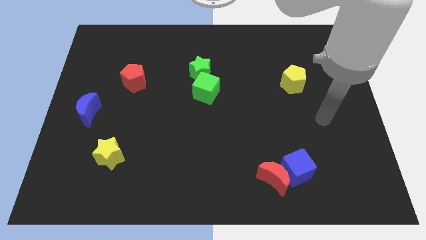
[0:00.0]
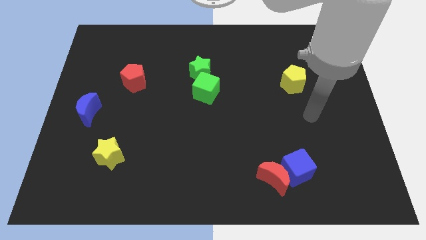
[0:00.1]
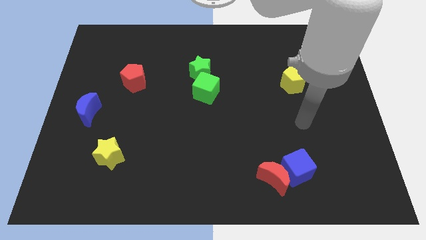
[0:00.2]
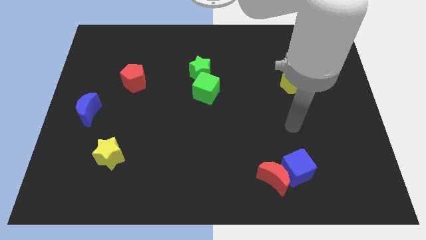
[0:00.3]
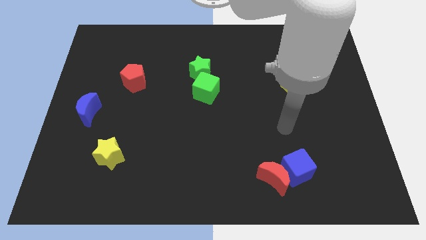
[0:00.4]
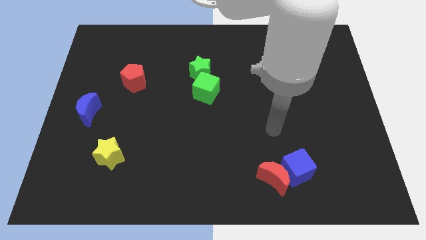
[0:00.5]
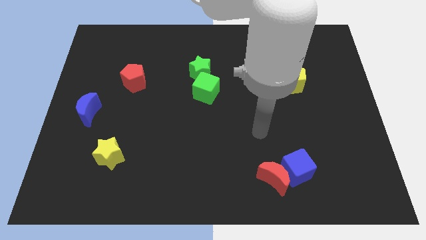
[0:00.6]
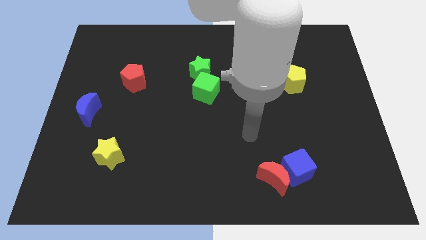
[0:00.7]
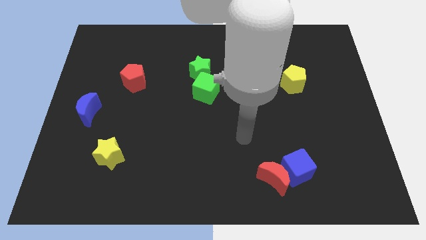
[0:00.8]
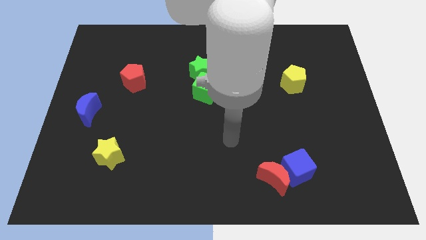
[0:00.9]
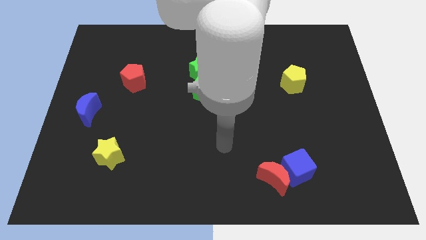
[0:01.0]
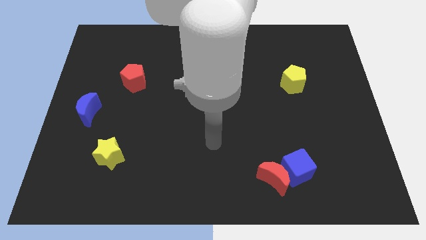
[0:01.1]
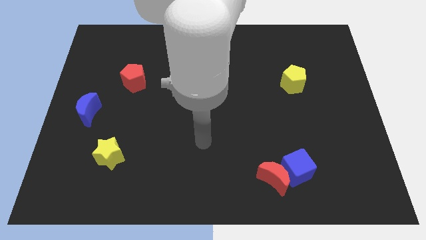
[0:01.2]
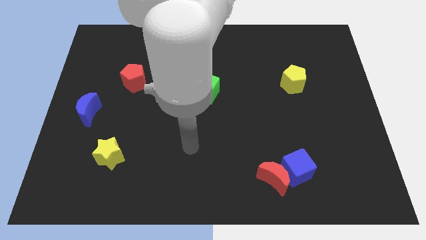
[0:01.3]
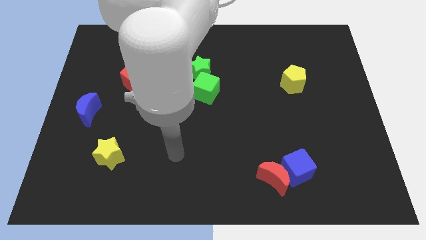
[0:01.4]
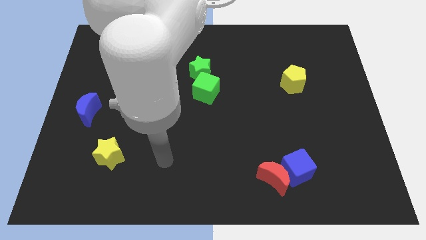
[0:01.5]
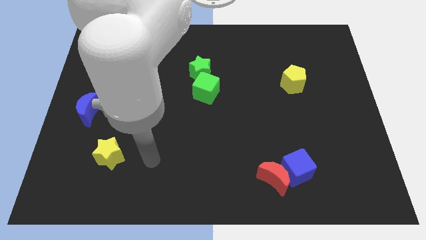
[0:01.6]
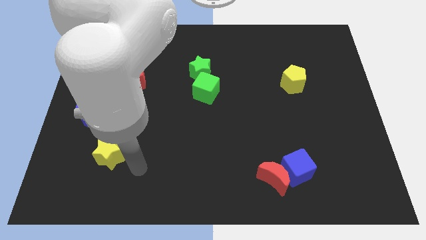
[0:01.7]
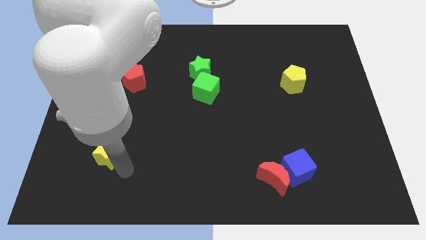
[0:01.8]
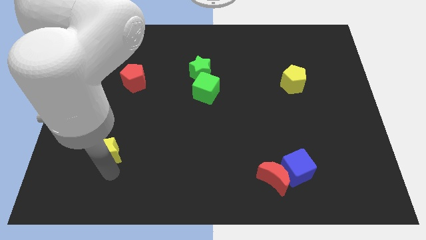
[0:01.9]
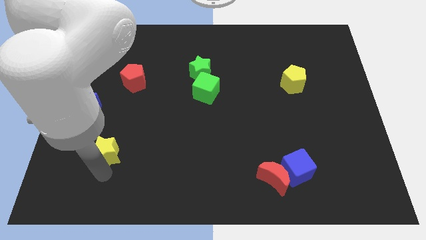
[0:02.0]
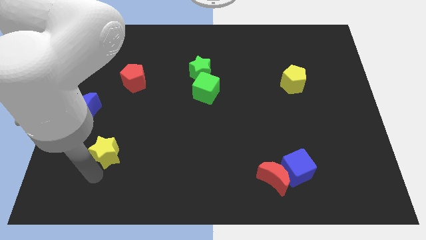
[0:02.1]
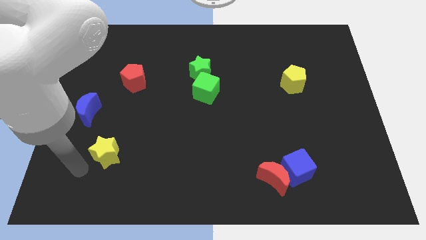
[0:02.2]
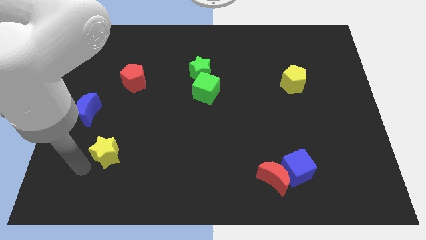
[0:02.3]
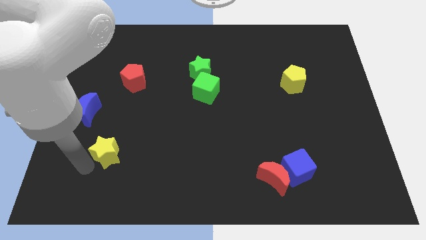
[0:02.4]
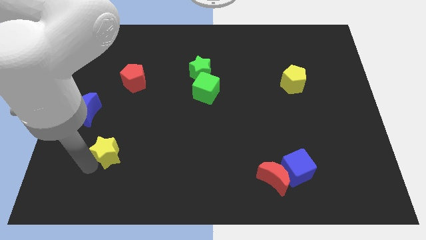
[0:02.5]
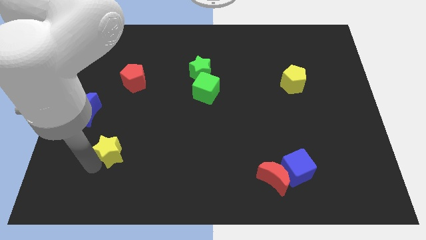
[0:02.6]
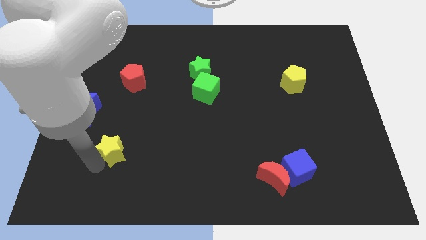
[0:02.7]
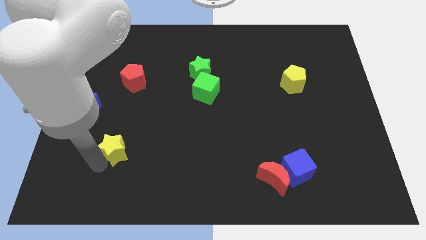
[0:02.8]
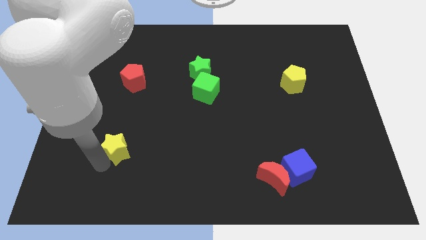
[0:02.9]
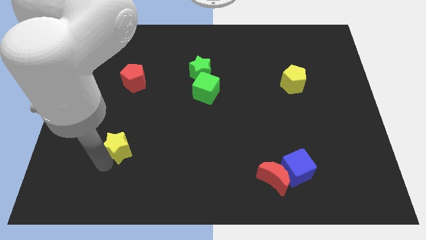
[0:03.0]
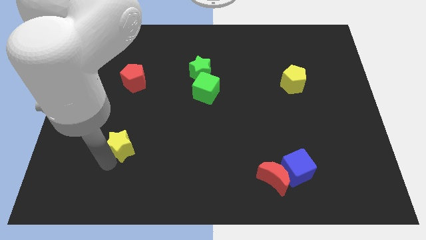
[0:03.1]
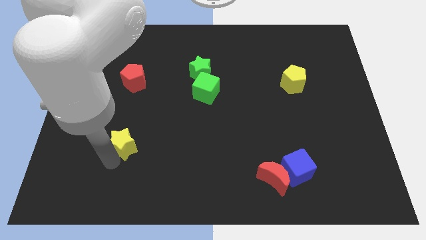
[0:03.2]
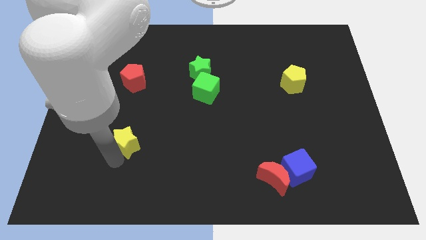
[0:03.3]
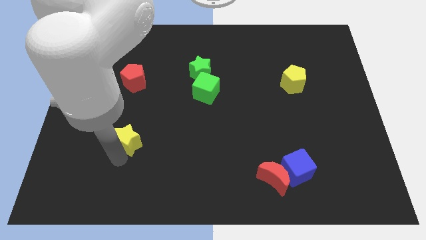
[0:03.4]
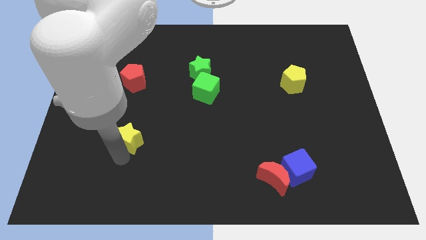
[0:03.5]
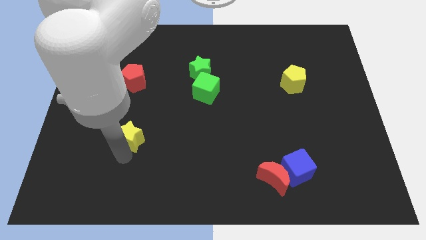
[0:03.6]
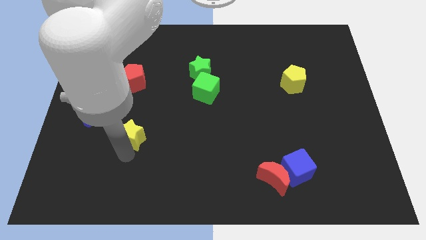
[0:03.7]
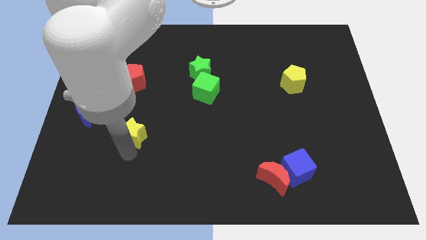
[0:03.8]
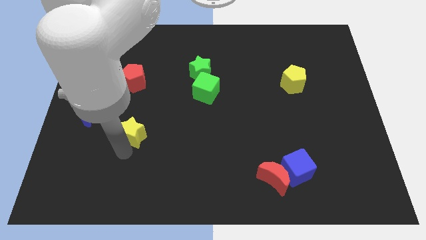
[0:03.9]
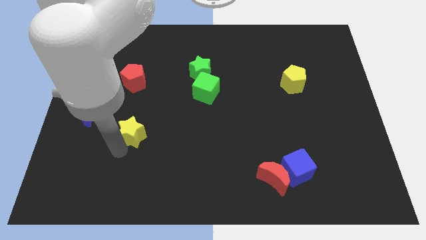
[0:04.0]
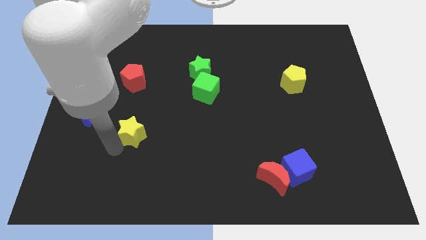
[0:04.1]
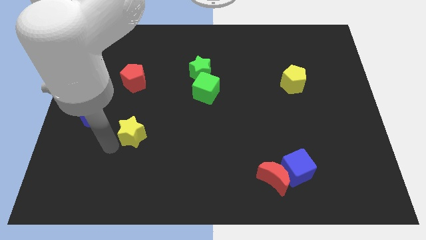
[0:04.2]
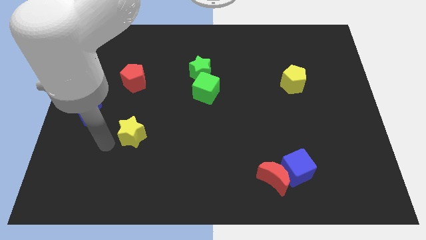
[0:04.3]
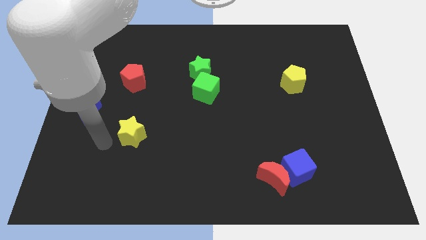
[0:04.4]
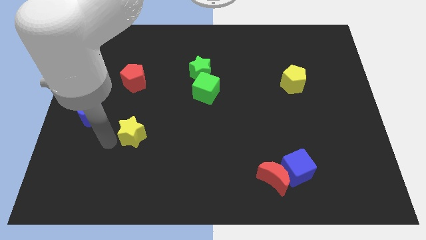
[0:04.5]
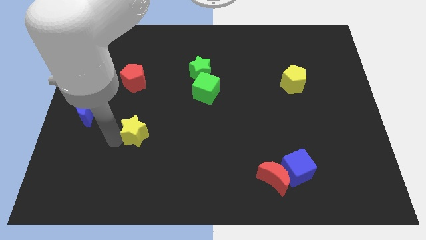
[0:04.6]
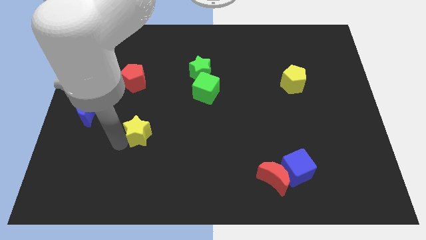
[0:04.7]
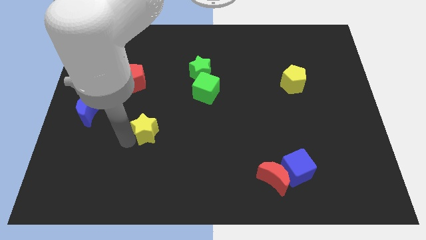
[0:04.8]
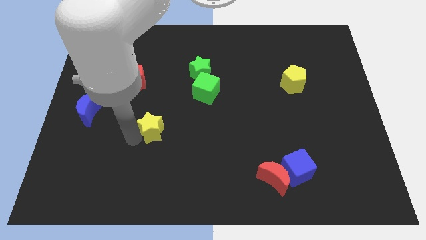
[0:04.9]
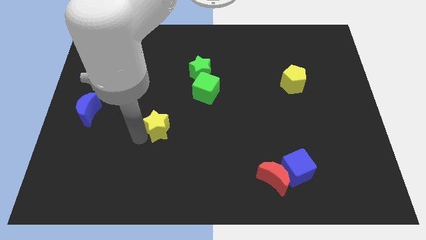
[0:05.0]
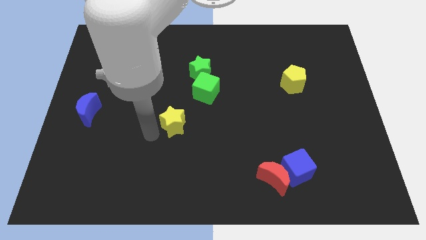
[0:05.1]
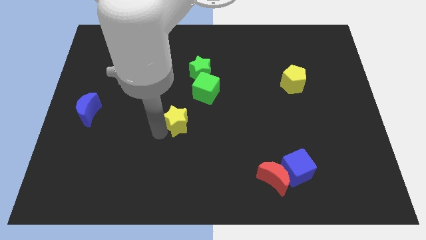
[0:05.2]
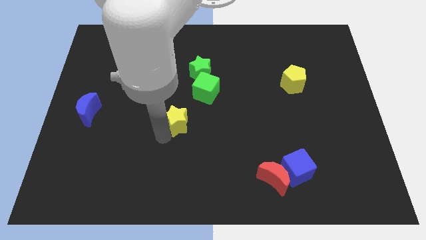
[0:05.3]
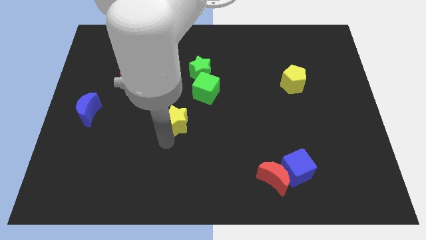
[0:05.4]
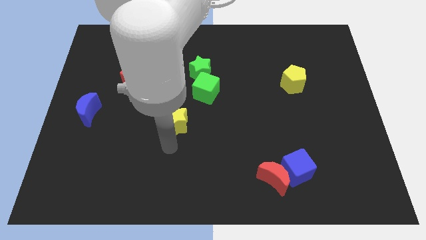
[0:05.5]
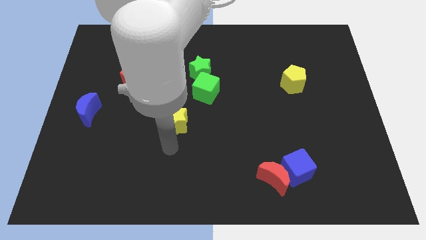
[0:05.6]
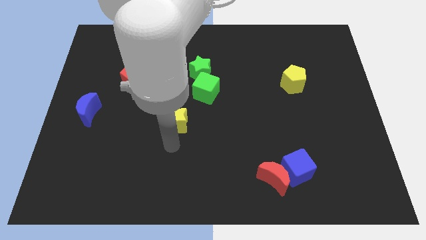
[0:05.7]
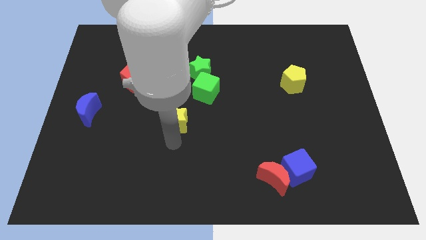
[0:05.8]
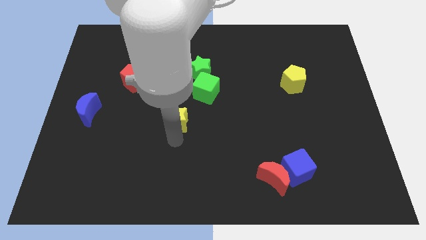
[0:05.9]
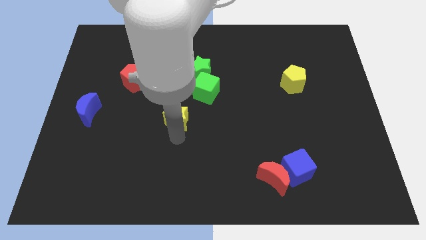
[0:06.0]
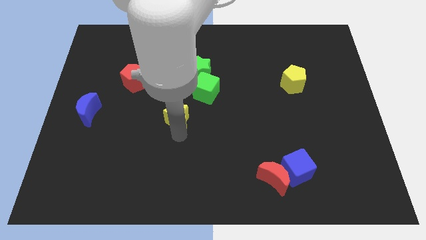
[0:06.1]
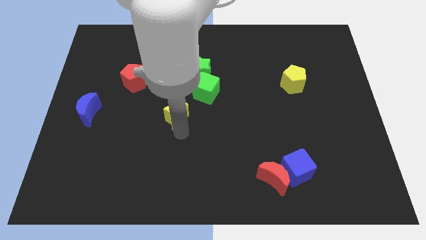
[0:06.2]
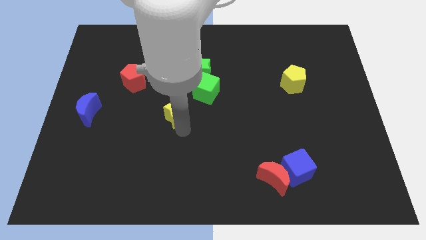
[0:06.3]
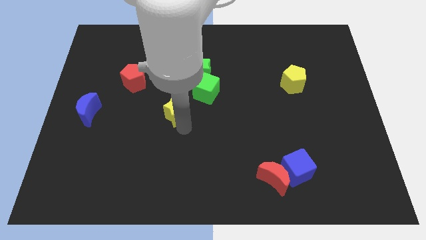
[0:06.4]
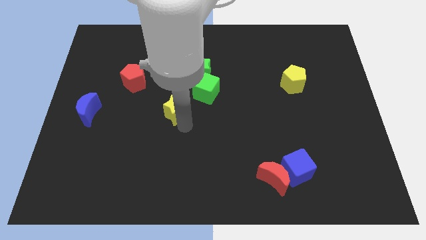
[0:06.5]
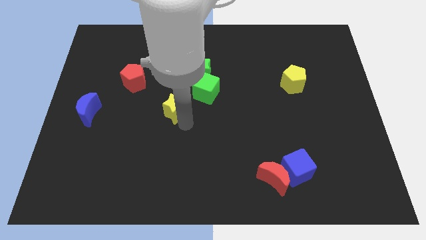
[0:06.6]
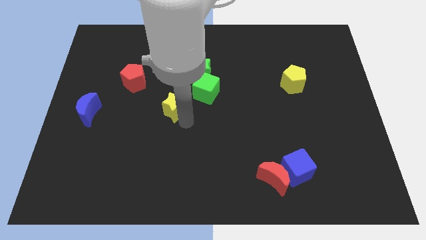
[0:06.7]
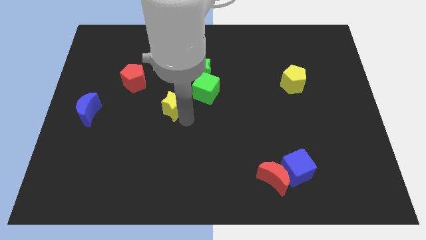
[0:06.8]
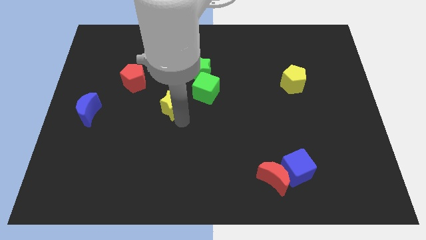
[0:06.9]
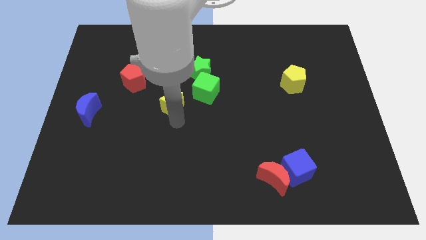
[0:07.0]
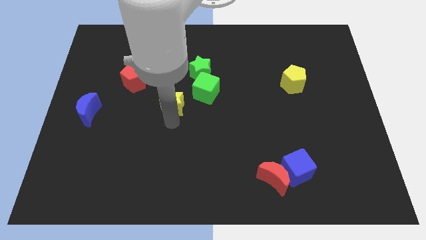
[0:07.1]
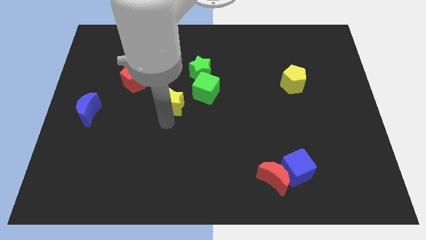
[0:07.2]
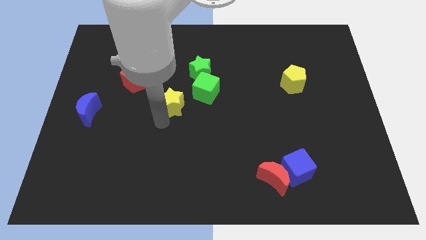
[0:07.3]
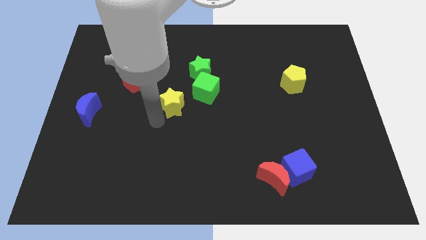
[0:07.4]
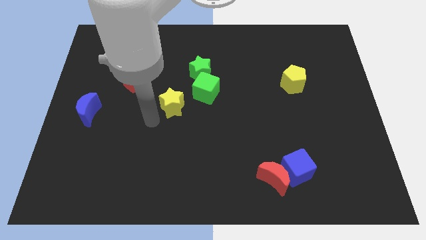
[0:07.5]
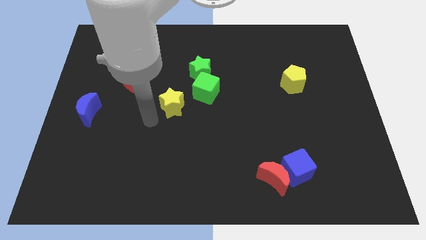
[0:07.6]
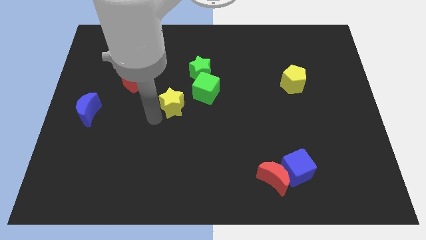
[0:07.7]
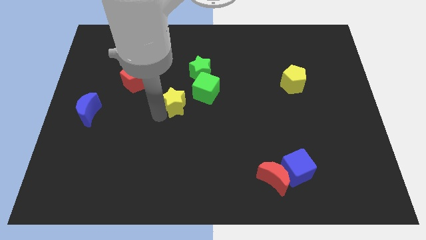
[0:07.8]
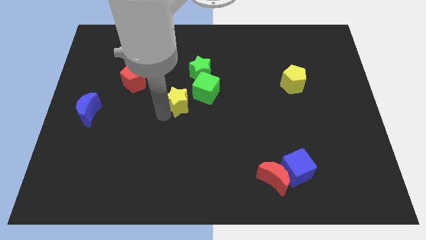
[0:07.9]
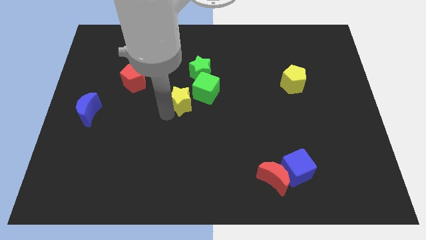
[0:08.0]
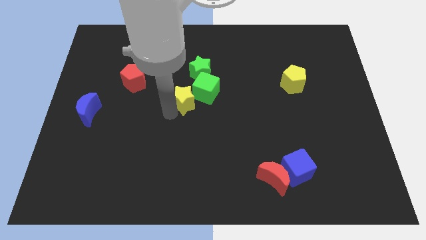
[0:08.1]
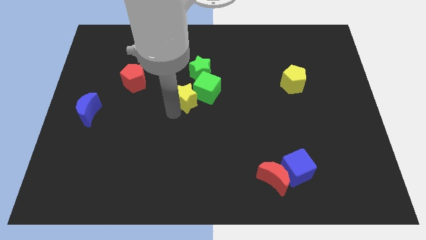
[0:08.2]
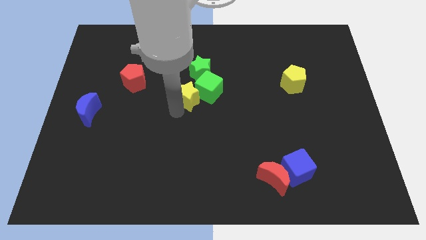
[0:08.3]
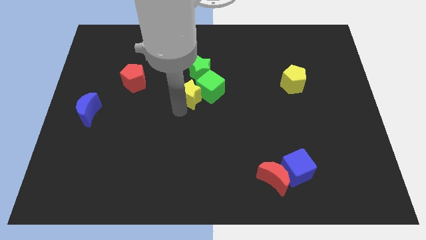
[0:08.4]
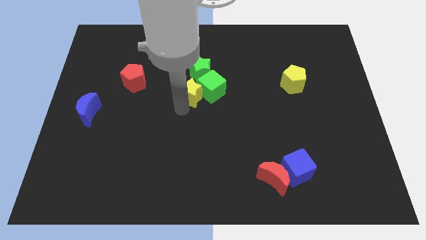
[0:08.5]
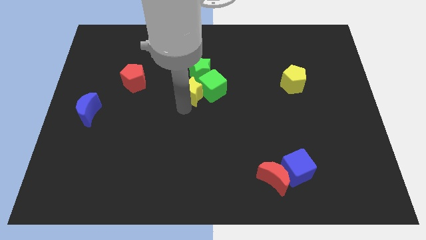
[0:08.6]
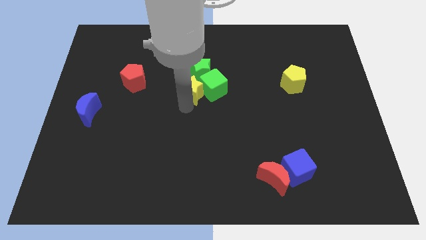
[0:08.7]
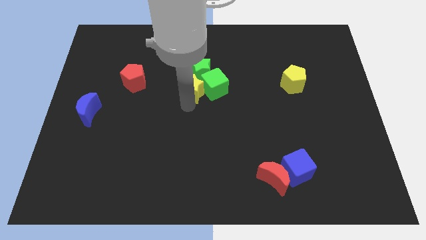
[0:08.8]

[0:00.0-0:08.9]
slide the yellow star next to the green star
